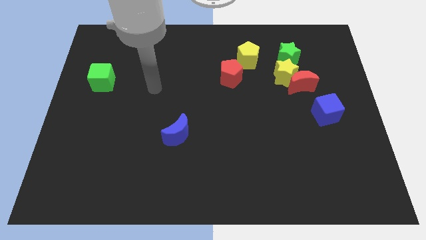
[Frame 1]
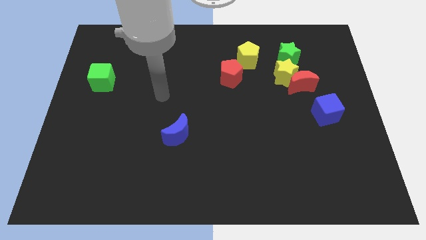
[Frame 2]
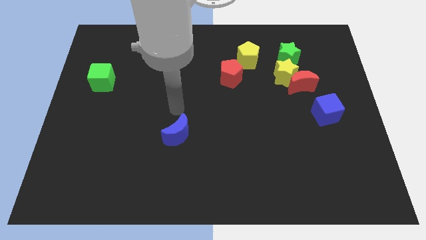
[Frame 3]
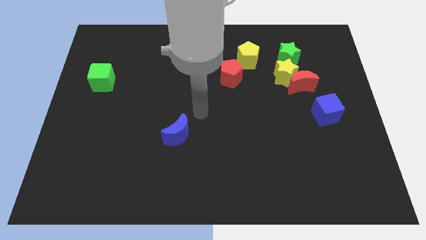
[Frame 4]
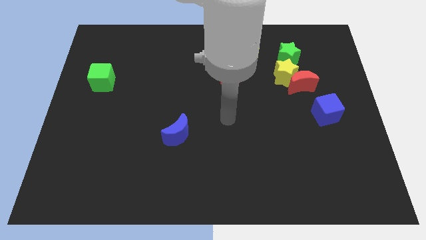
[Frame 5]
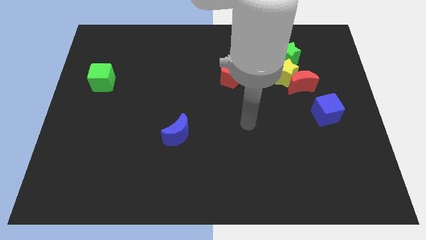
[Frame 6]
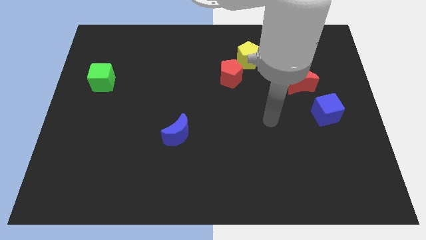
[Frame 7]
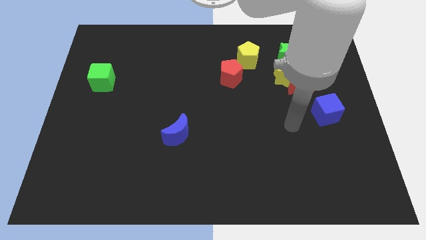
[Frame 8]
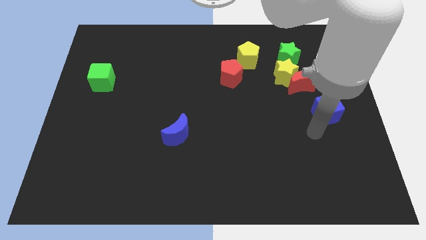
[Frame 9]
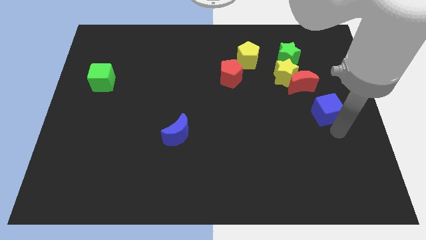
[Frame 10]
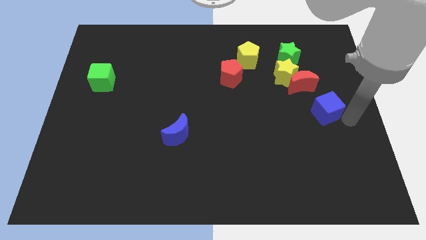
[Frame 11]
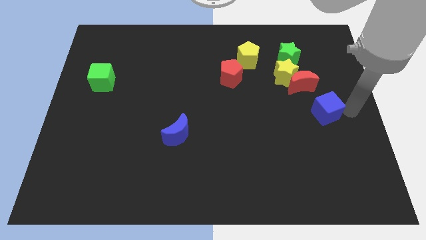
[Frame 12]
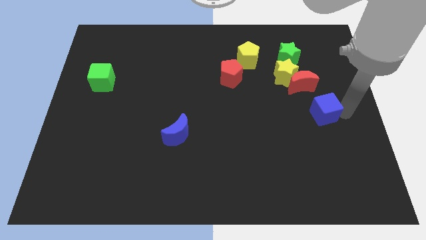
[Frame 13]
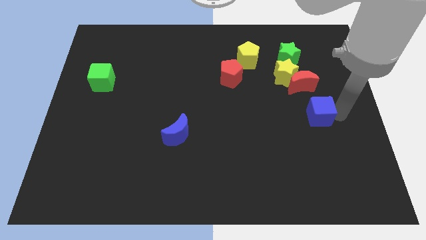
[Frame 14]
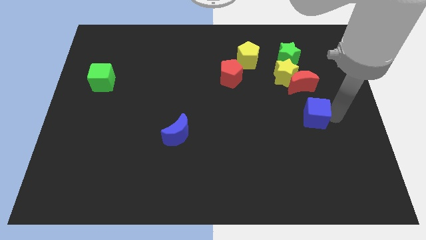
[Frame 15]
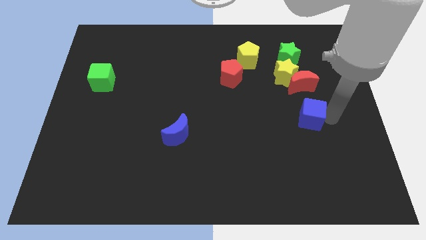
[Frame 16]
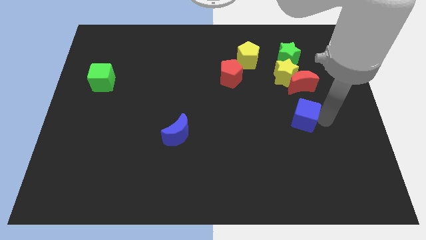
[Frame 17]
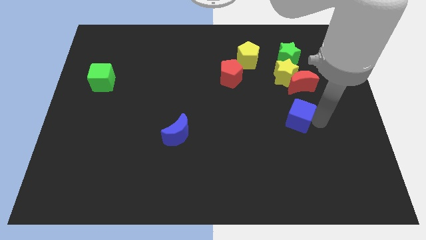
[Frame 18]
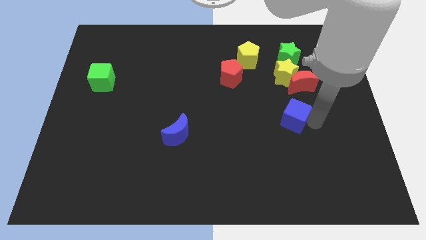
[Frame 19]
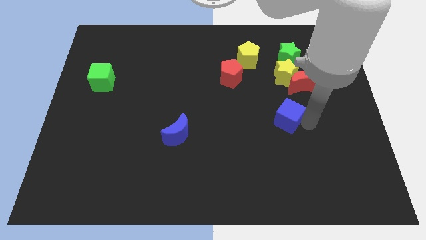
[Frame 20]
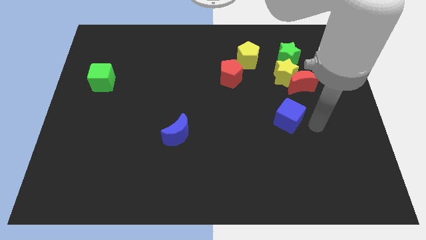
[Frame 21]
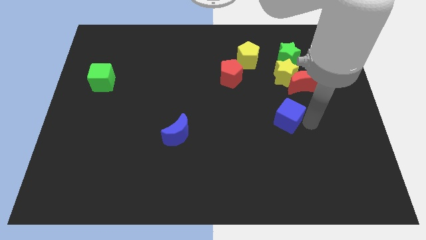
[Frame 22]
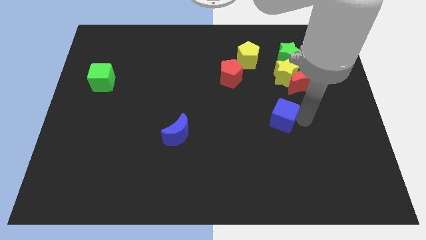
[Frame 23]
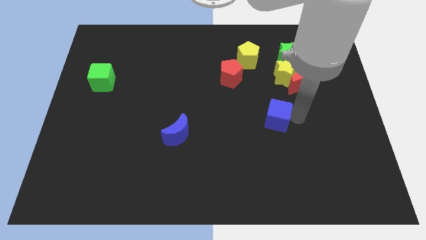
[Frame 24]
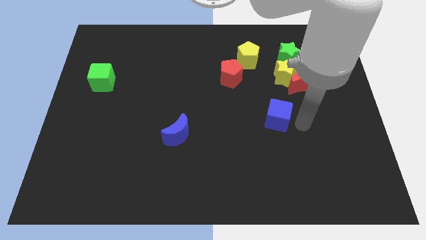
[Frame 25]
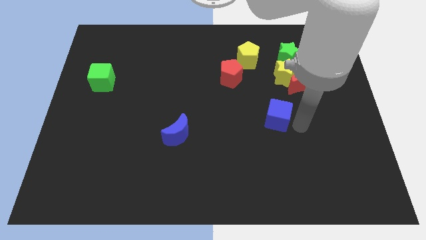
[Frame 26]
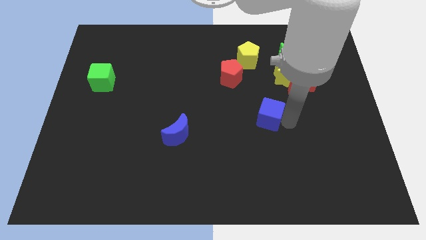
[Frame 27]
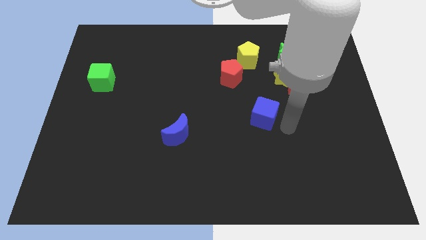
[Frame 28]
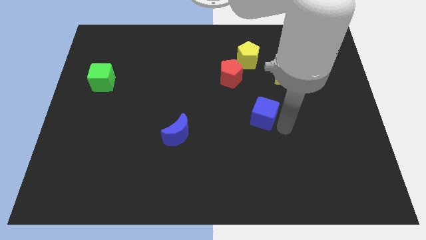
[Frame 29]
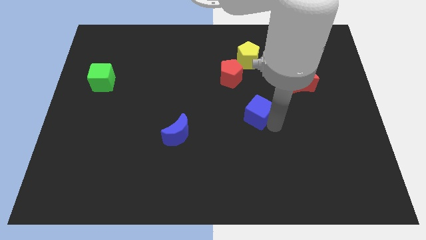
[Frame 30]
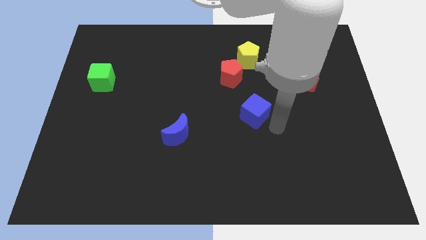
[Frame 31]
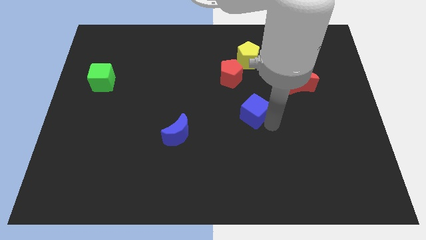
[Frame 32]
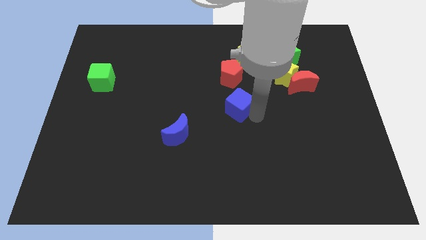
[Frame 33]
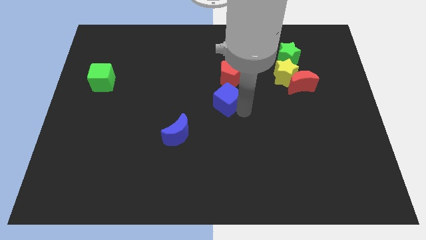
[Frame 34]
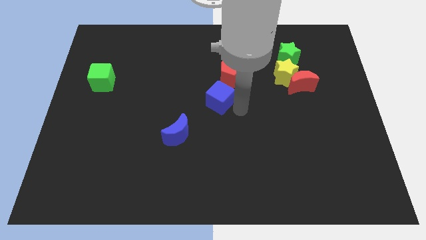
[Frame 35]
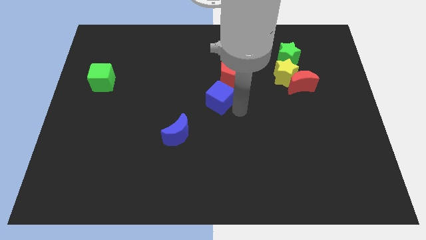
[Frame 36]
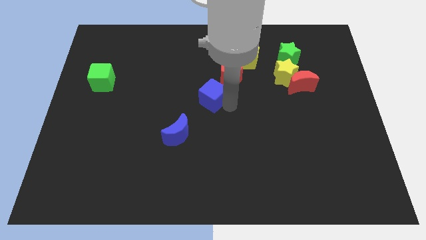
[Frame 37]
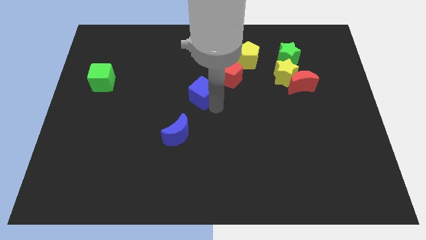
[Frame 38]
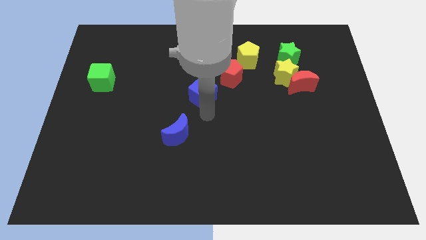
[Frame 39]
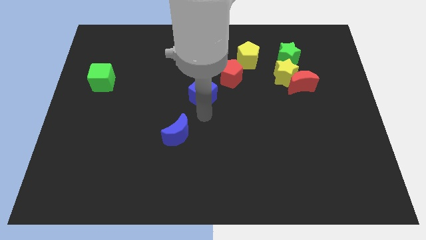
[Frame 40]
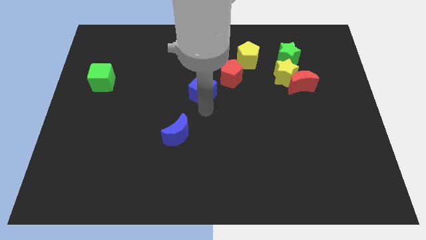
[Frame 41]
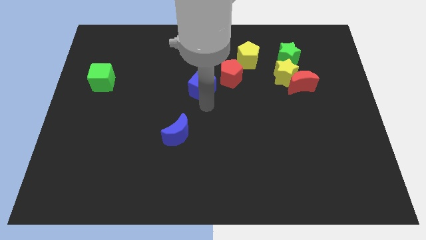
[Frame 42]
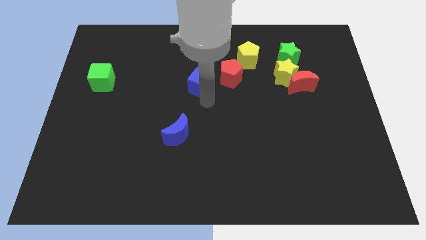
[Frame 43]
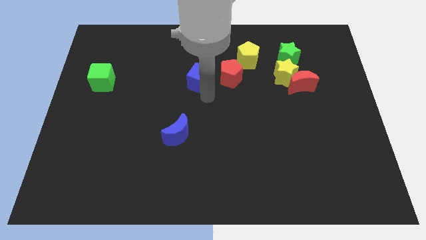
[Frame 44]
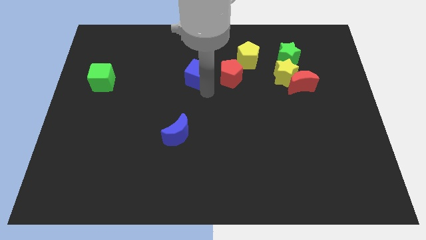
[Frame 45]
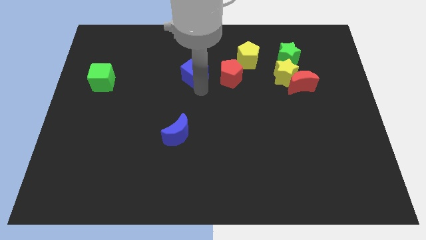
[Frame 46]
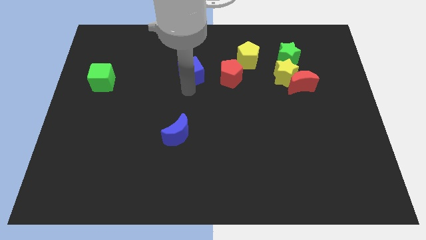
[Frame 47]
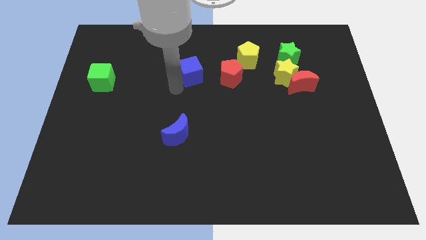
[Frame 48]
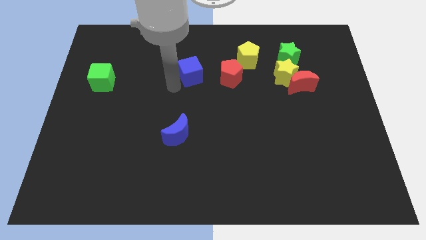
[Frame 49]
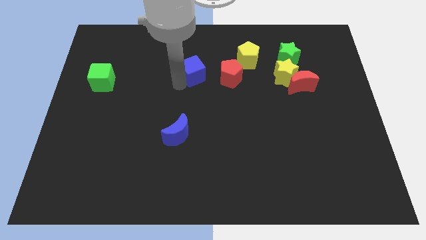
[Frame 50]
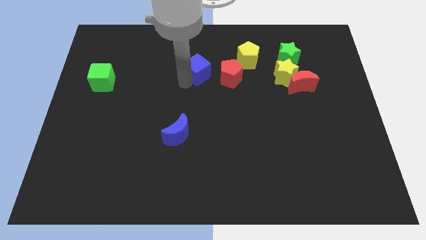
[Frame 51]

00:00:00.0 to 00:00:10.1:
put the blue cube diagonally up and to the left of the red pentagon

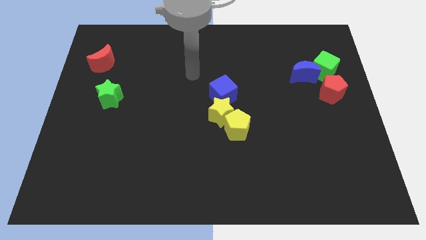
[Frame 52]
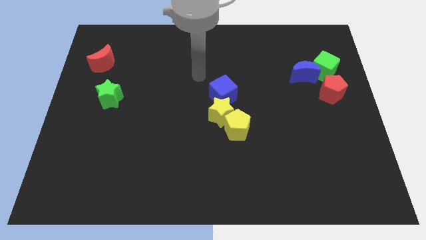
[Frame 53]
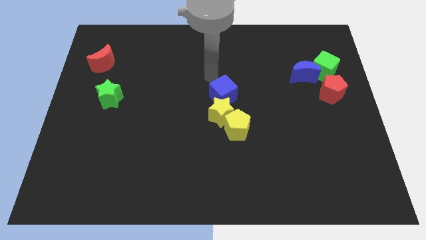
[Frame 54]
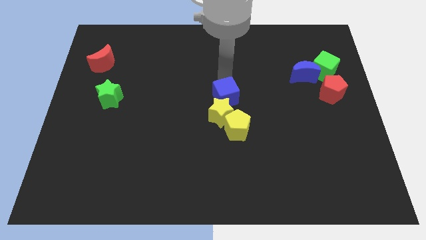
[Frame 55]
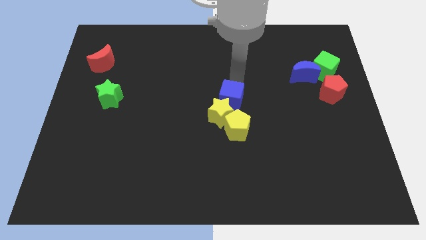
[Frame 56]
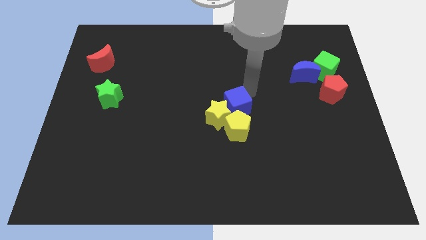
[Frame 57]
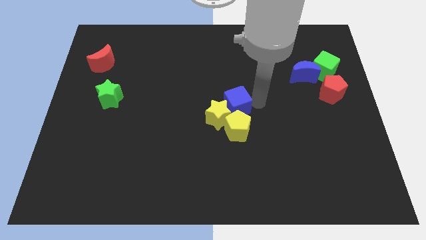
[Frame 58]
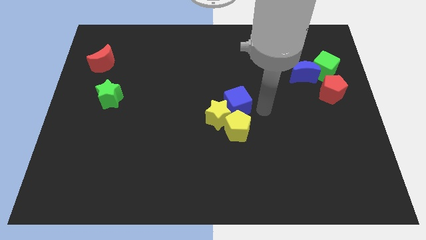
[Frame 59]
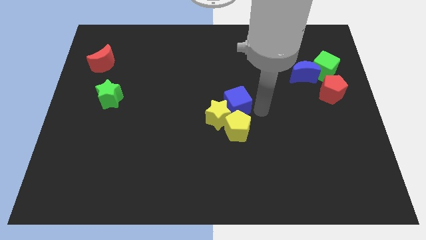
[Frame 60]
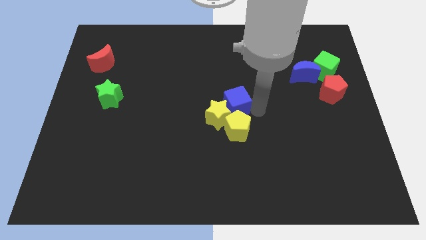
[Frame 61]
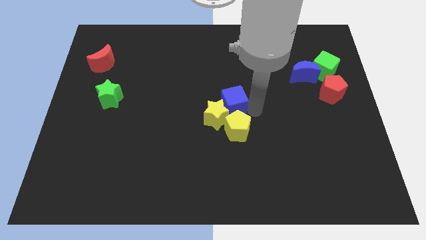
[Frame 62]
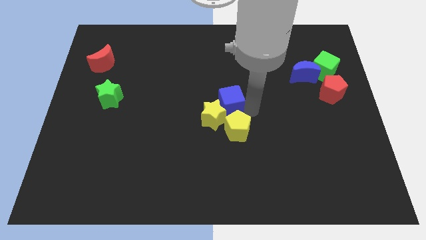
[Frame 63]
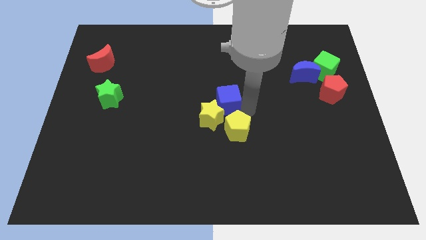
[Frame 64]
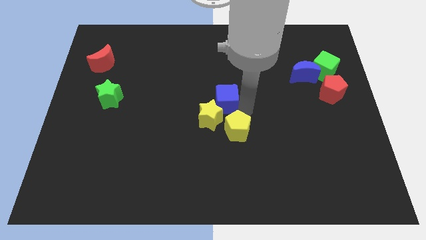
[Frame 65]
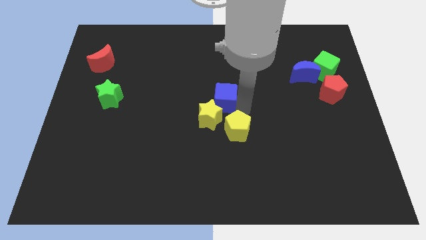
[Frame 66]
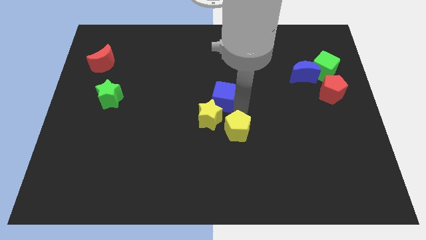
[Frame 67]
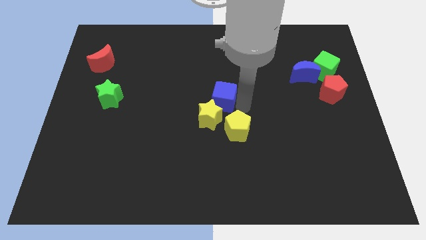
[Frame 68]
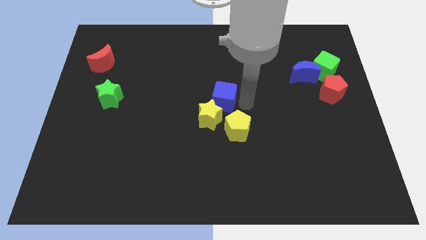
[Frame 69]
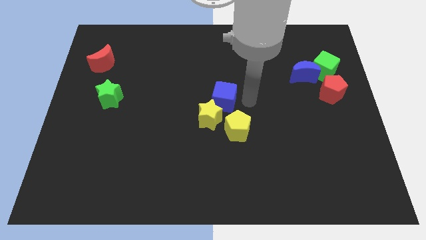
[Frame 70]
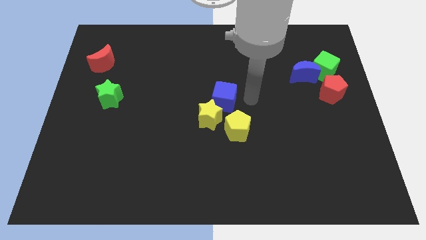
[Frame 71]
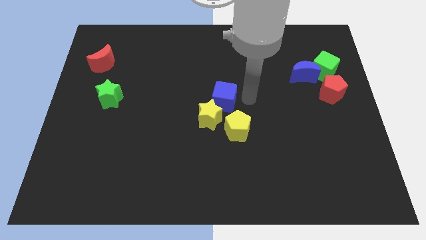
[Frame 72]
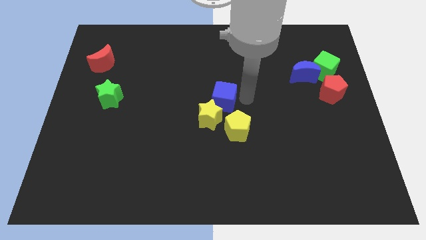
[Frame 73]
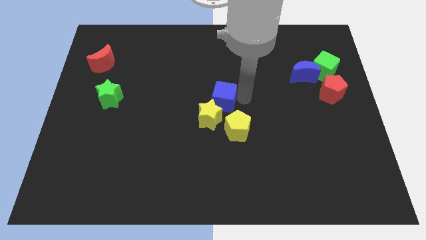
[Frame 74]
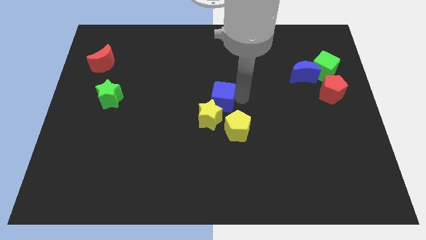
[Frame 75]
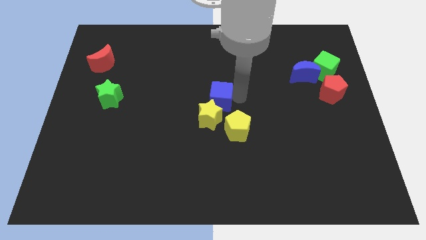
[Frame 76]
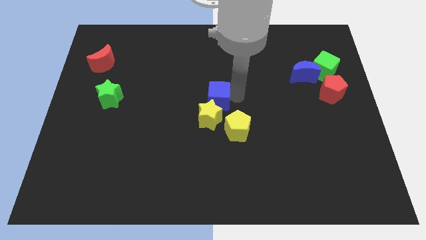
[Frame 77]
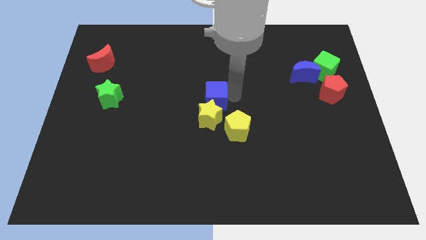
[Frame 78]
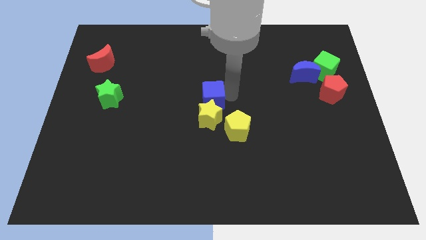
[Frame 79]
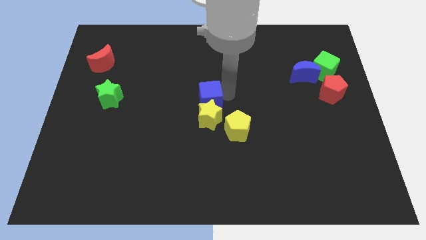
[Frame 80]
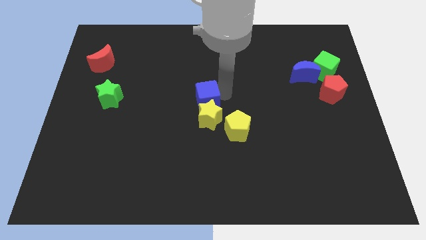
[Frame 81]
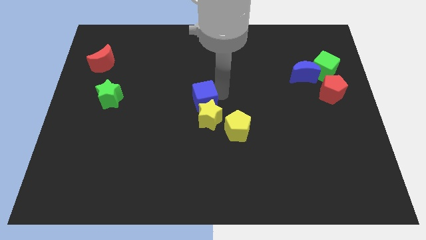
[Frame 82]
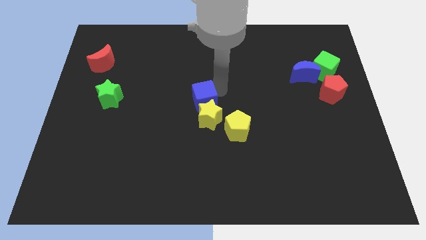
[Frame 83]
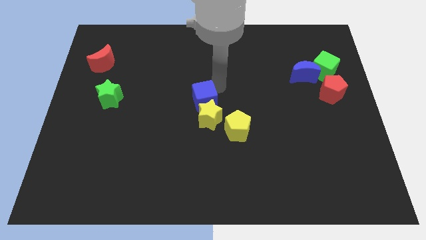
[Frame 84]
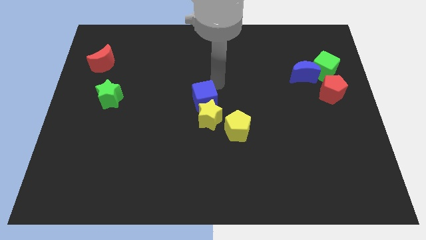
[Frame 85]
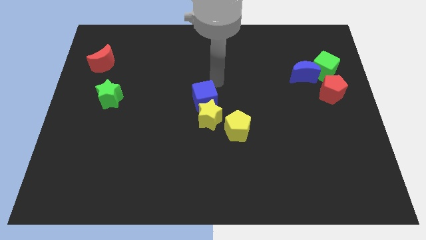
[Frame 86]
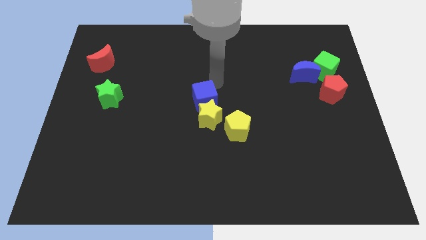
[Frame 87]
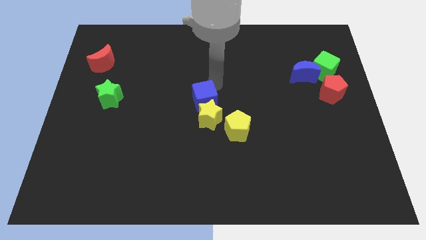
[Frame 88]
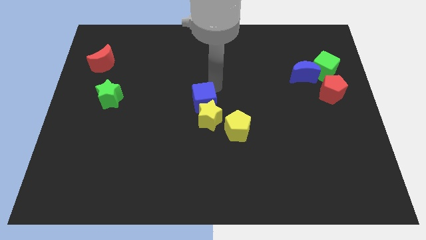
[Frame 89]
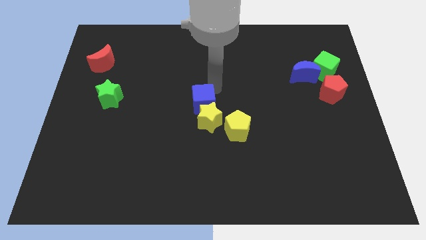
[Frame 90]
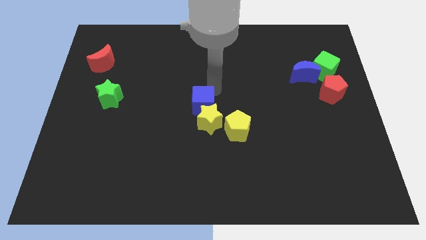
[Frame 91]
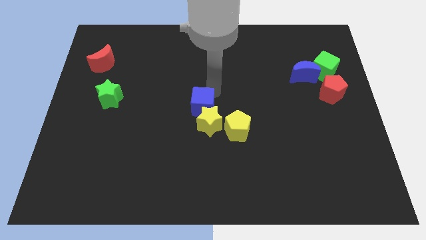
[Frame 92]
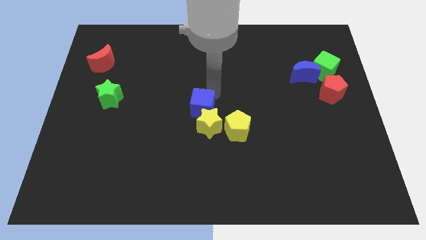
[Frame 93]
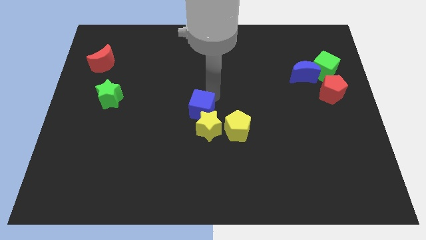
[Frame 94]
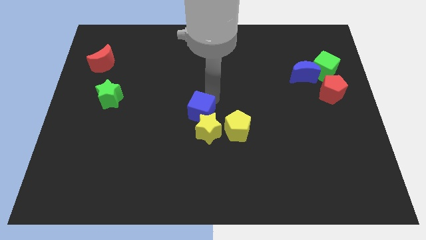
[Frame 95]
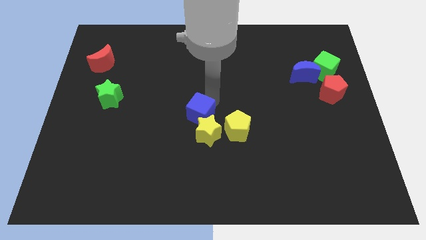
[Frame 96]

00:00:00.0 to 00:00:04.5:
push the blue cube to the left of the yellow pentagon
